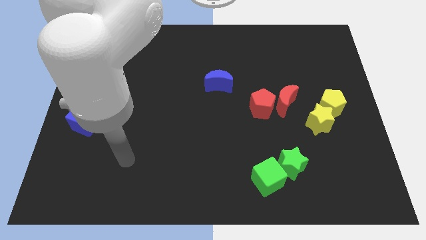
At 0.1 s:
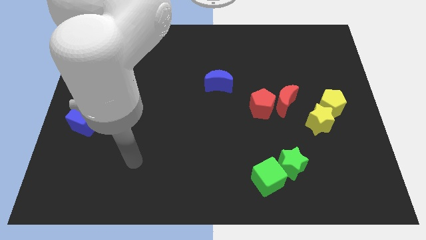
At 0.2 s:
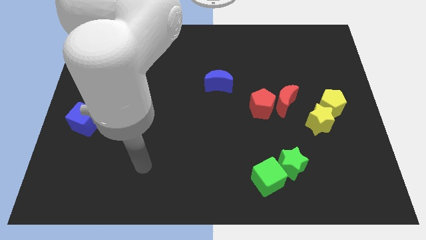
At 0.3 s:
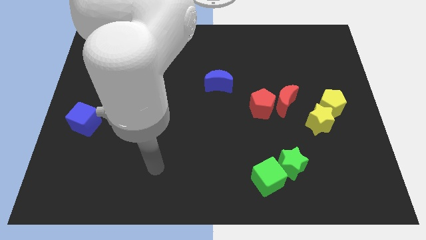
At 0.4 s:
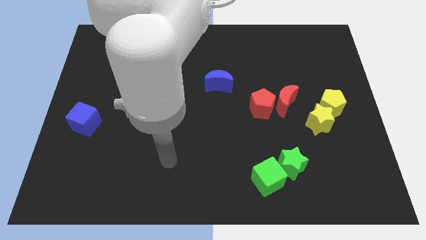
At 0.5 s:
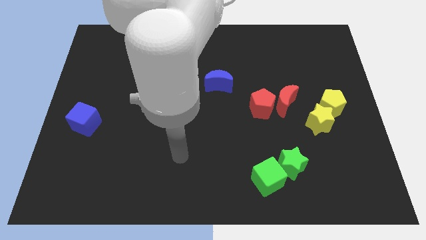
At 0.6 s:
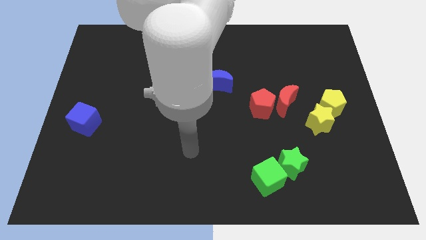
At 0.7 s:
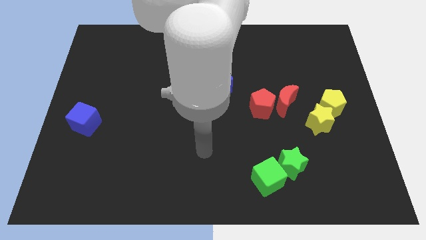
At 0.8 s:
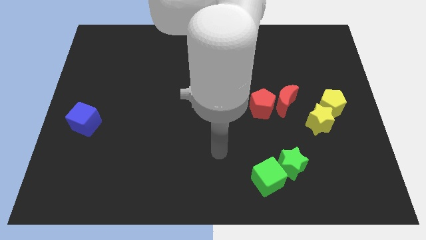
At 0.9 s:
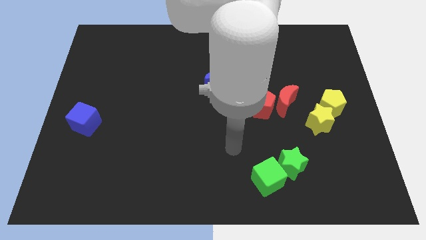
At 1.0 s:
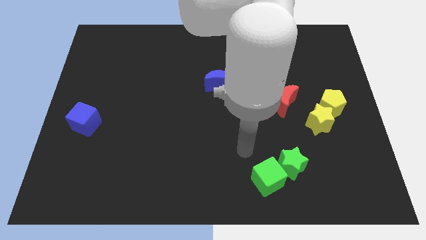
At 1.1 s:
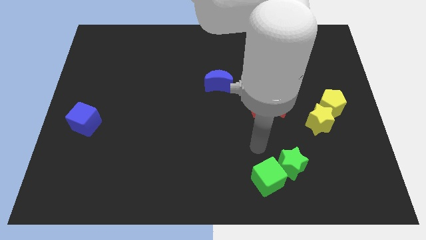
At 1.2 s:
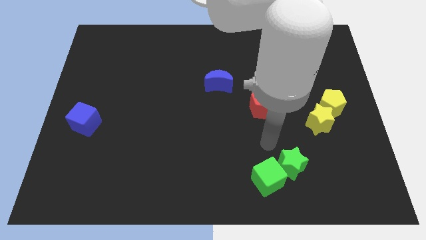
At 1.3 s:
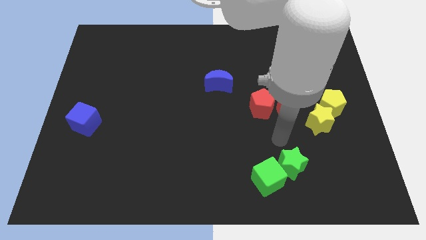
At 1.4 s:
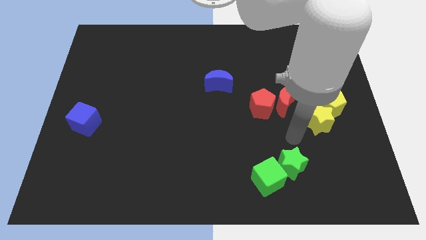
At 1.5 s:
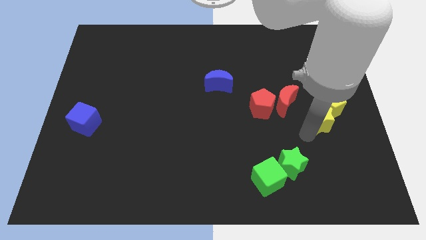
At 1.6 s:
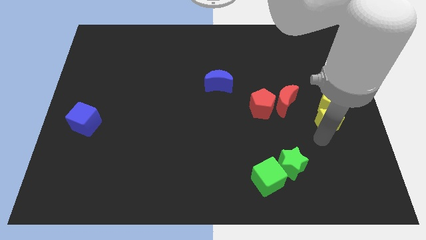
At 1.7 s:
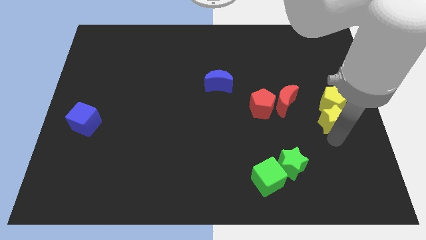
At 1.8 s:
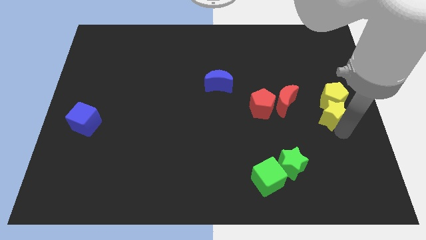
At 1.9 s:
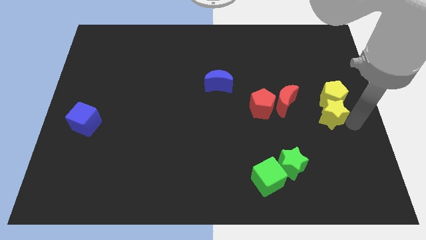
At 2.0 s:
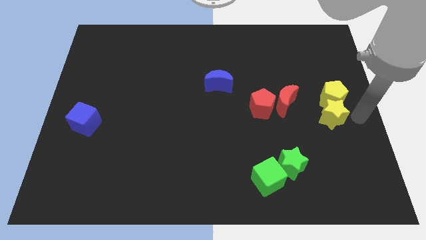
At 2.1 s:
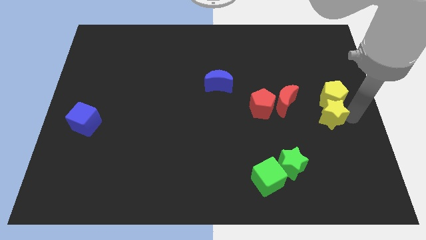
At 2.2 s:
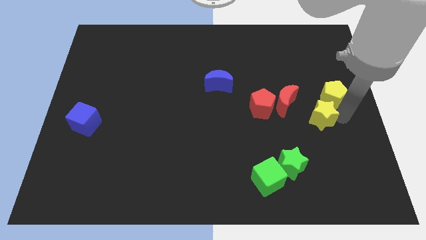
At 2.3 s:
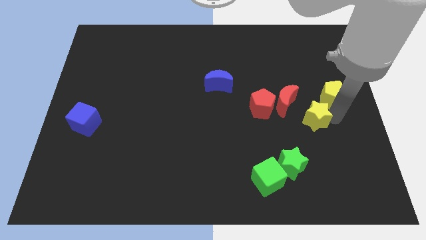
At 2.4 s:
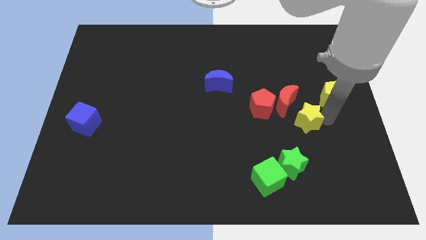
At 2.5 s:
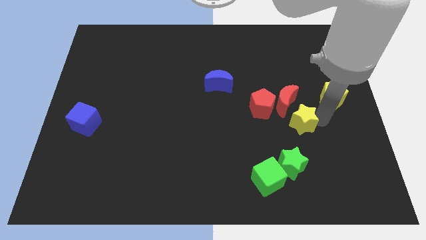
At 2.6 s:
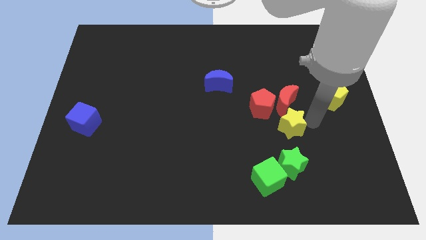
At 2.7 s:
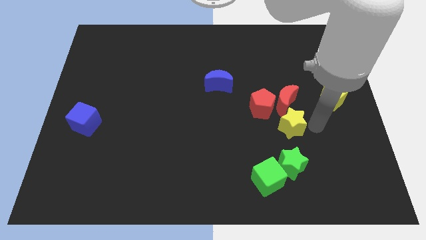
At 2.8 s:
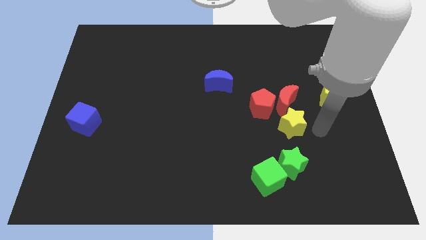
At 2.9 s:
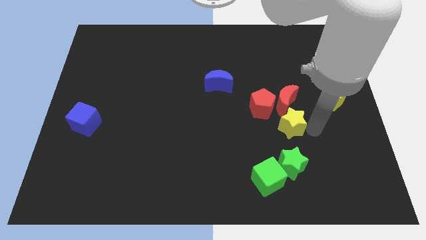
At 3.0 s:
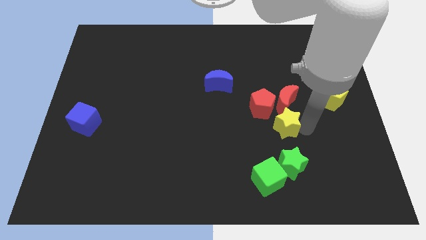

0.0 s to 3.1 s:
push the yellow star left a little

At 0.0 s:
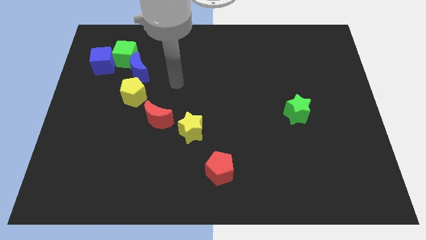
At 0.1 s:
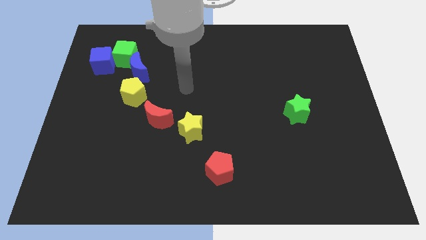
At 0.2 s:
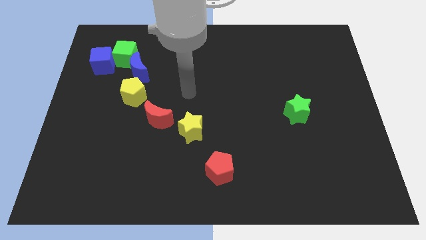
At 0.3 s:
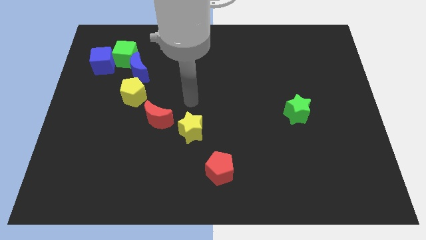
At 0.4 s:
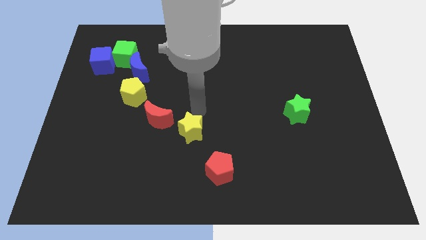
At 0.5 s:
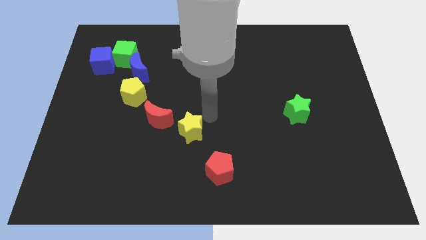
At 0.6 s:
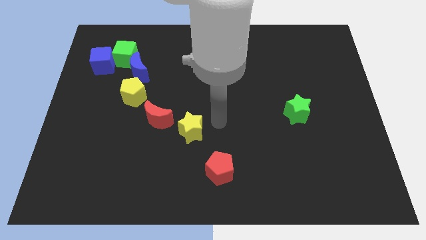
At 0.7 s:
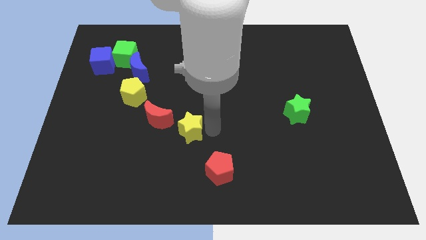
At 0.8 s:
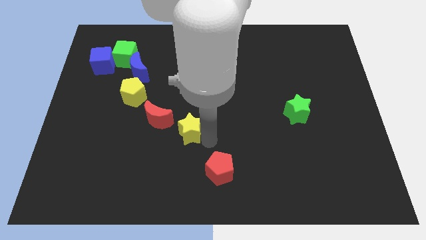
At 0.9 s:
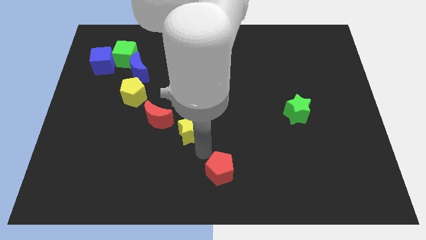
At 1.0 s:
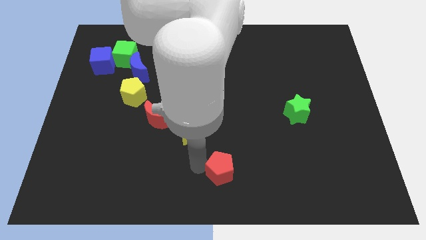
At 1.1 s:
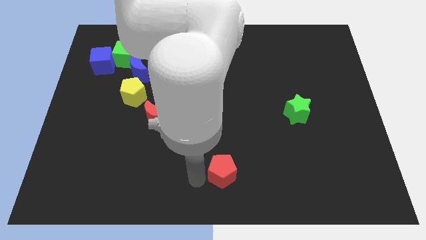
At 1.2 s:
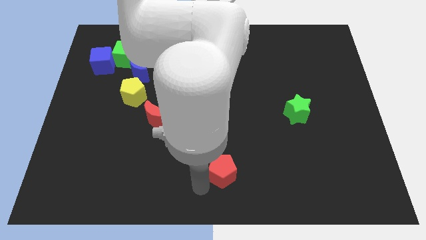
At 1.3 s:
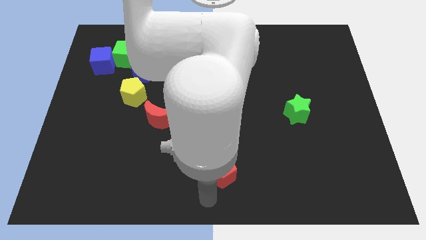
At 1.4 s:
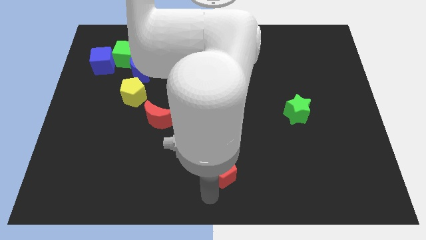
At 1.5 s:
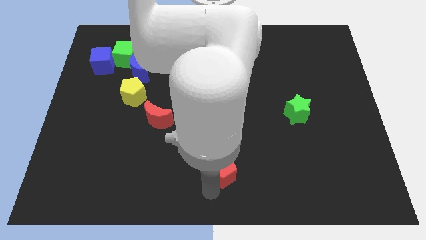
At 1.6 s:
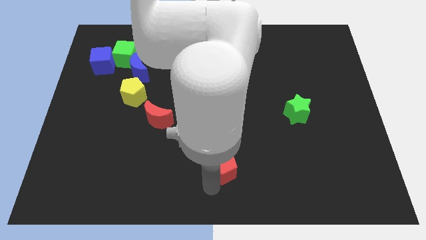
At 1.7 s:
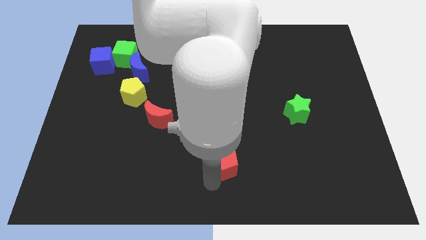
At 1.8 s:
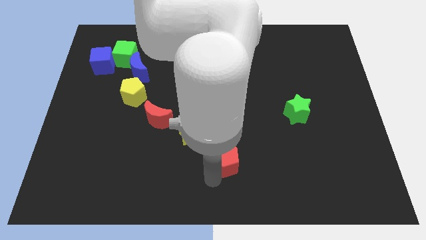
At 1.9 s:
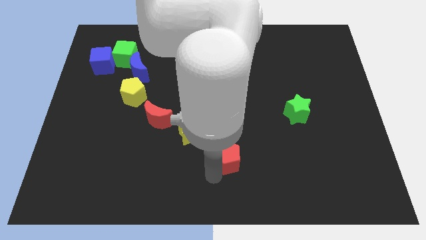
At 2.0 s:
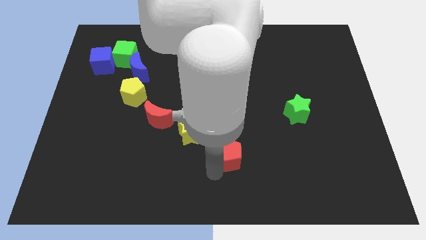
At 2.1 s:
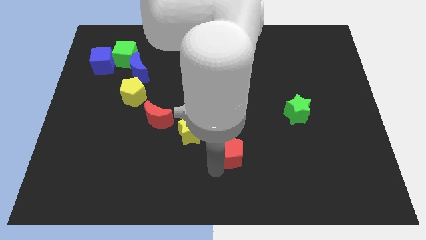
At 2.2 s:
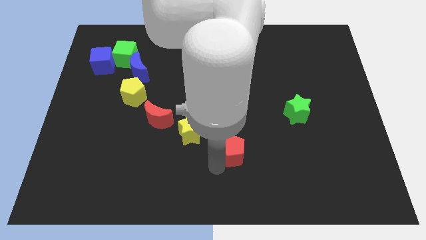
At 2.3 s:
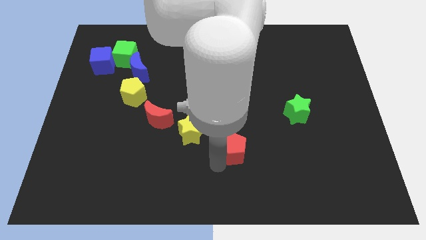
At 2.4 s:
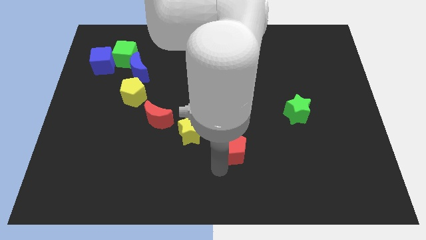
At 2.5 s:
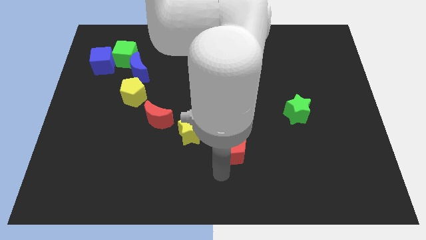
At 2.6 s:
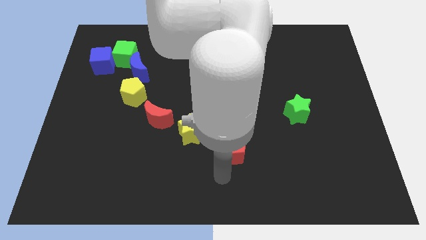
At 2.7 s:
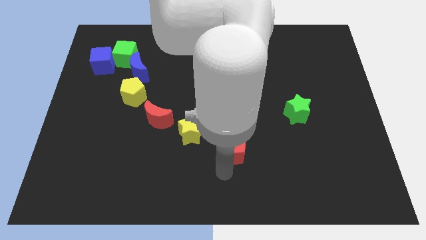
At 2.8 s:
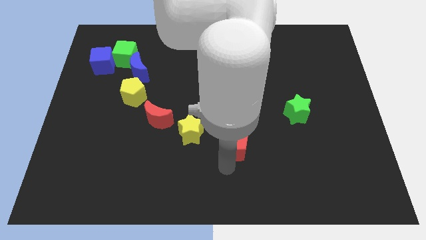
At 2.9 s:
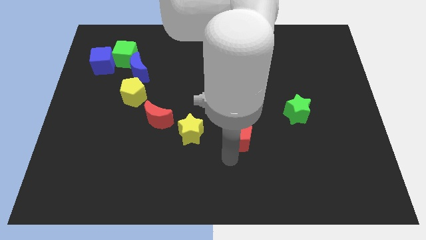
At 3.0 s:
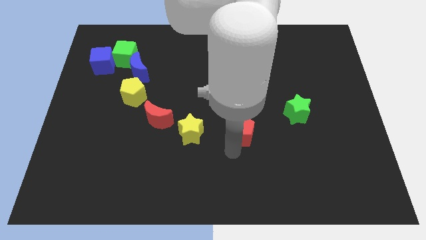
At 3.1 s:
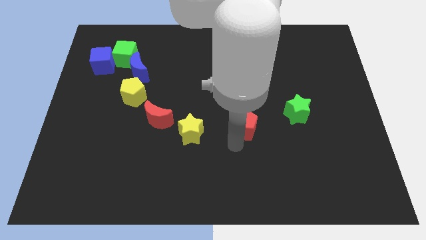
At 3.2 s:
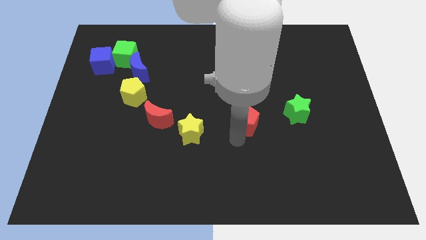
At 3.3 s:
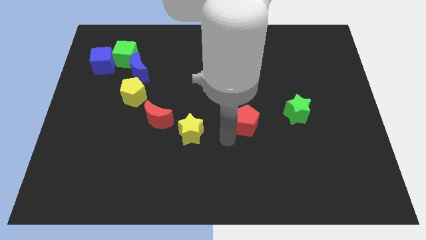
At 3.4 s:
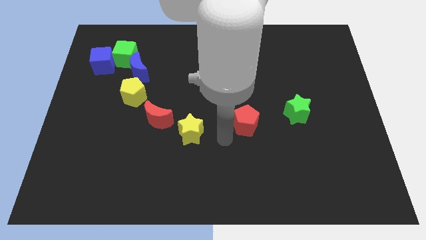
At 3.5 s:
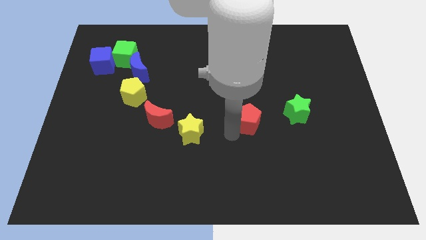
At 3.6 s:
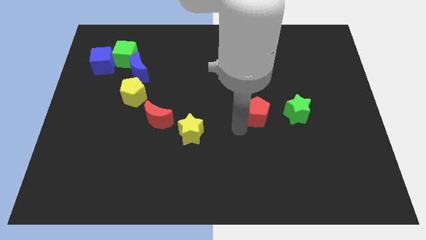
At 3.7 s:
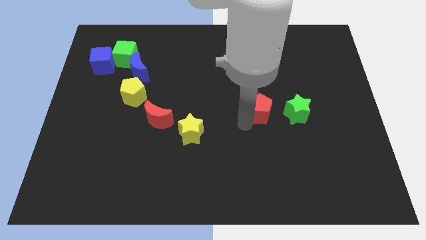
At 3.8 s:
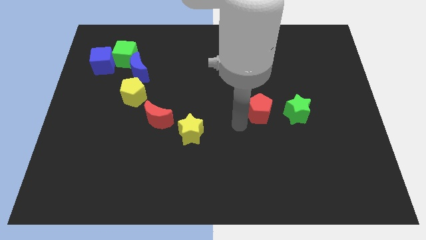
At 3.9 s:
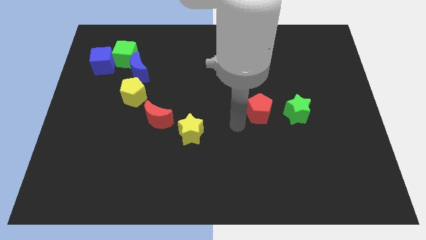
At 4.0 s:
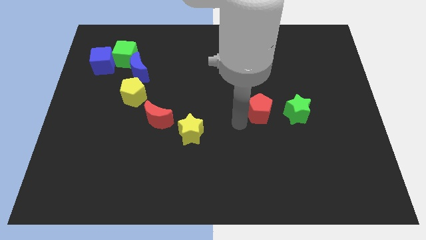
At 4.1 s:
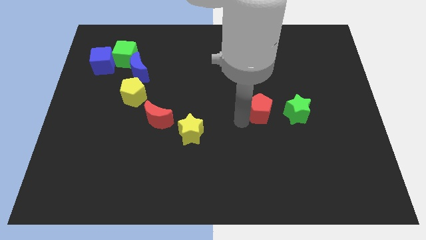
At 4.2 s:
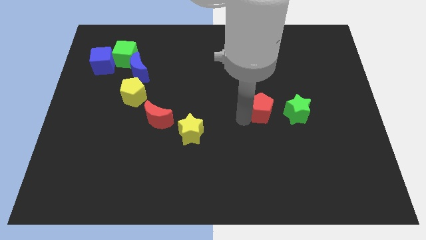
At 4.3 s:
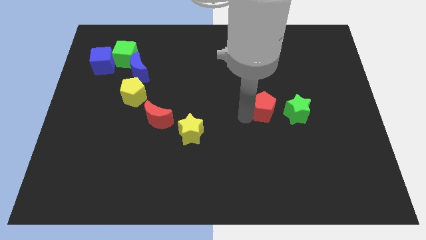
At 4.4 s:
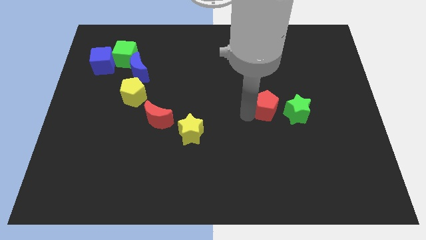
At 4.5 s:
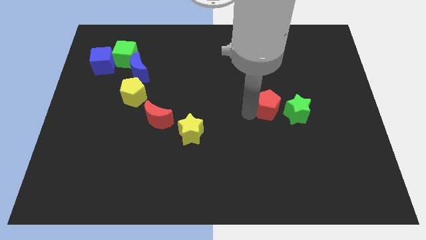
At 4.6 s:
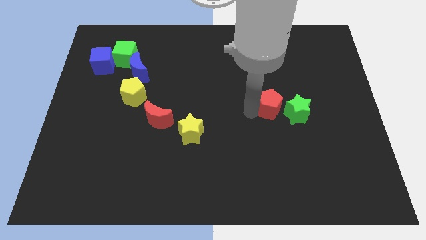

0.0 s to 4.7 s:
move the red pentagon up and right diagonally
